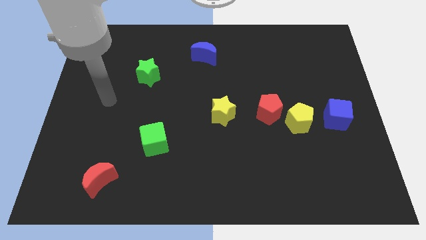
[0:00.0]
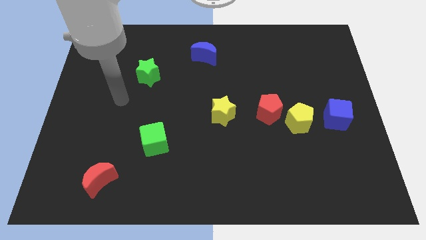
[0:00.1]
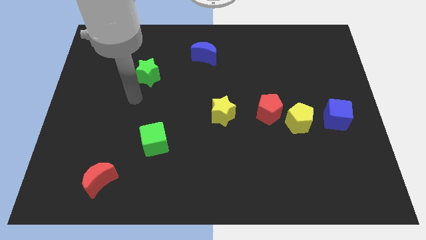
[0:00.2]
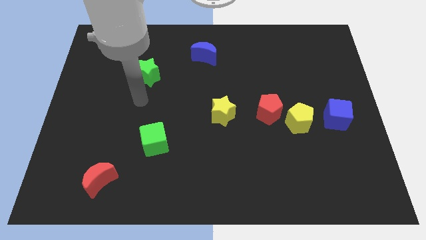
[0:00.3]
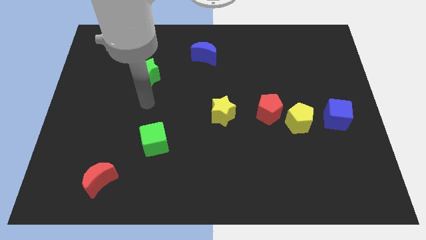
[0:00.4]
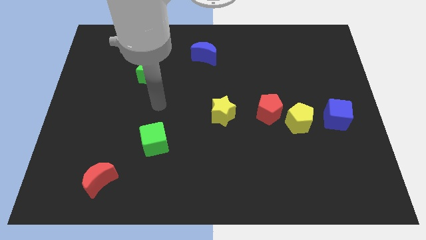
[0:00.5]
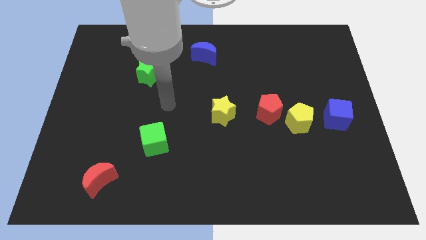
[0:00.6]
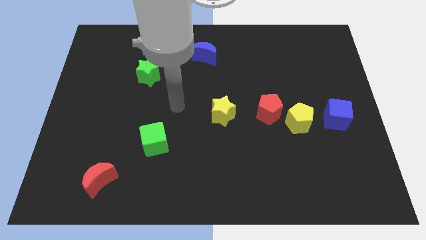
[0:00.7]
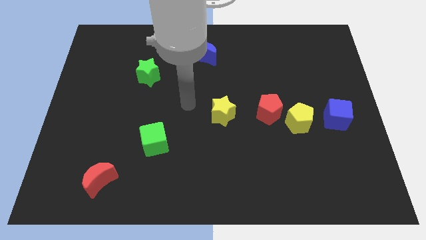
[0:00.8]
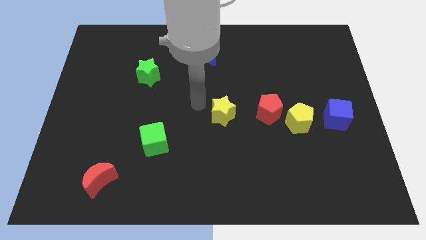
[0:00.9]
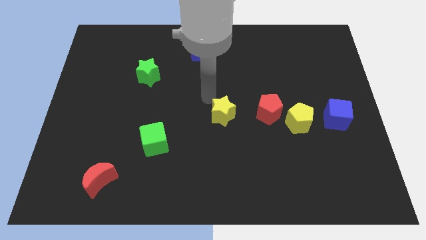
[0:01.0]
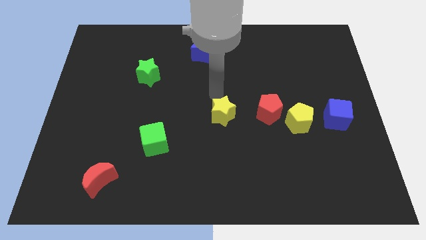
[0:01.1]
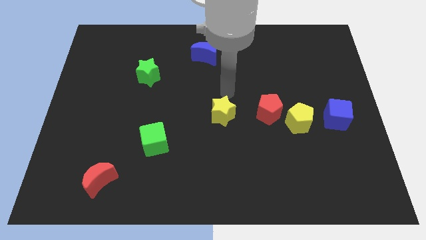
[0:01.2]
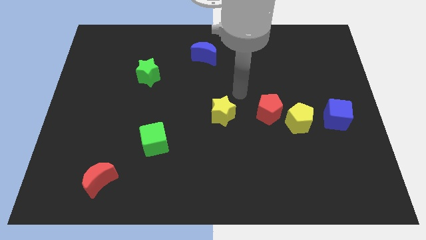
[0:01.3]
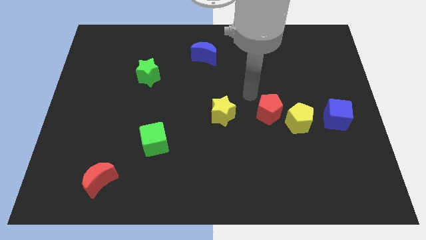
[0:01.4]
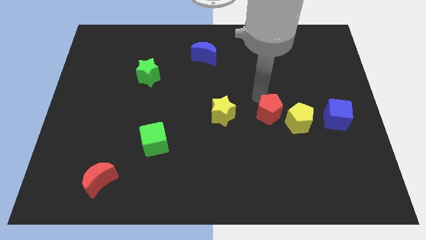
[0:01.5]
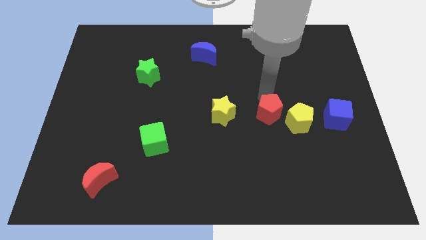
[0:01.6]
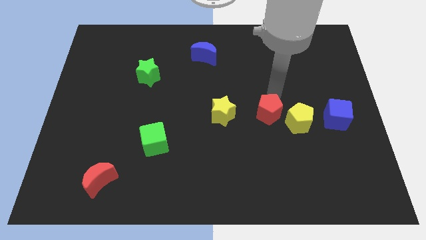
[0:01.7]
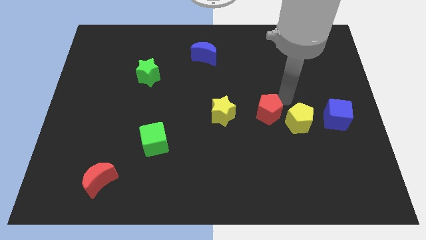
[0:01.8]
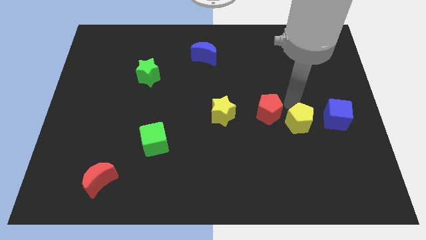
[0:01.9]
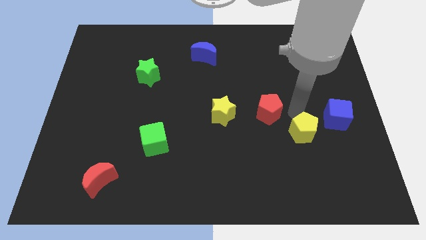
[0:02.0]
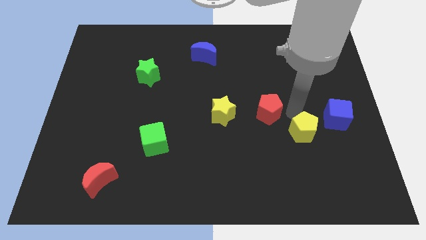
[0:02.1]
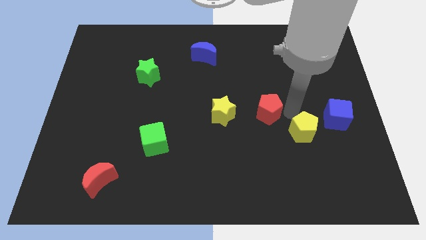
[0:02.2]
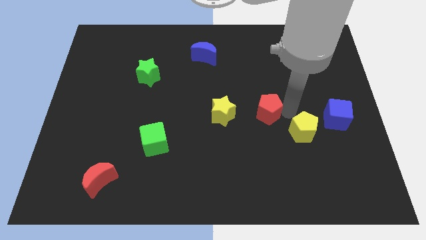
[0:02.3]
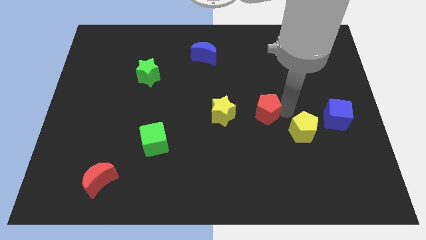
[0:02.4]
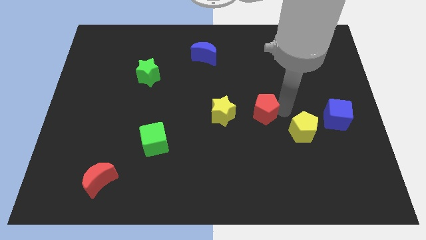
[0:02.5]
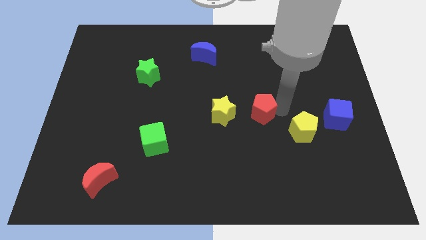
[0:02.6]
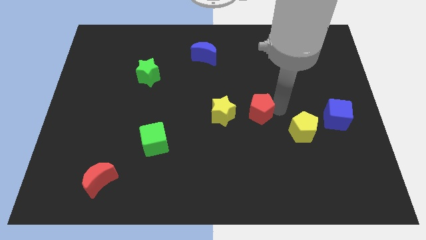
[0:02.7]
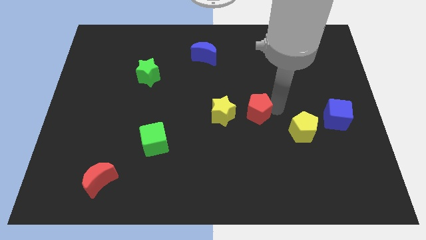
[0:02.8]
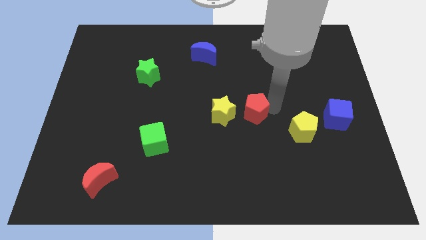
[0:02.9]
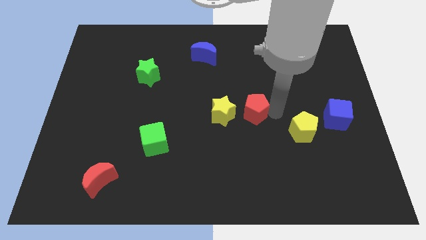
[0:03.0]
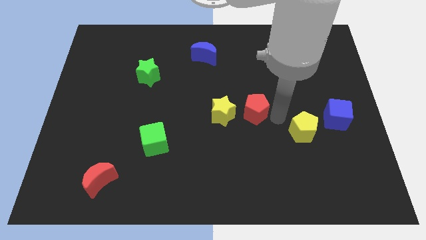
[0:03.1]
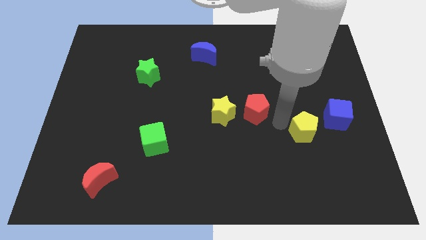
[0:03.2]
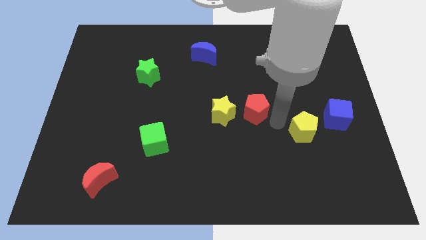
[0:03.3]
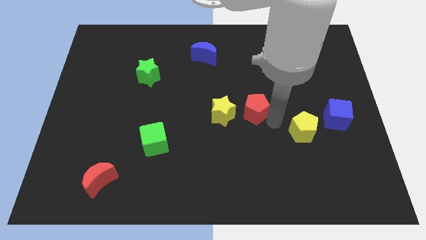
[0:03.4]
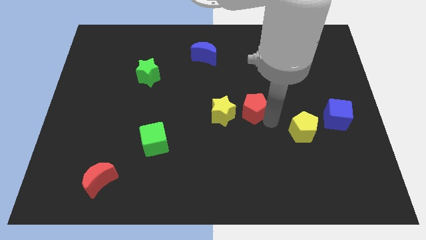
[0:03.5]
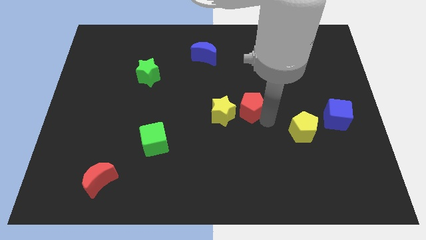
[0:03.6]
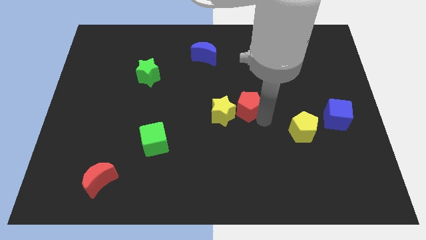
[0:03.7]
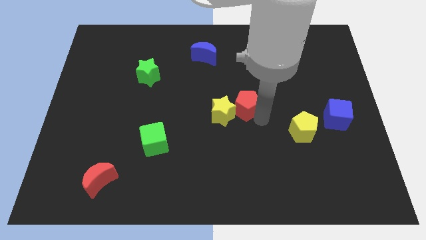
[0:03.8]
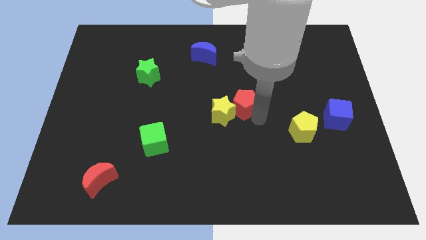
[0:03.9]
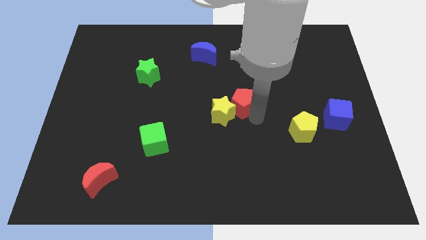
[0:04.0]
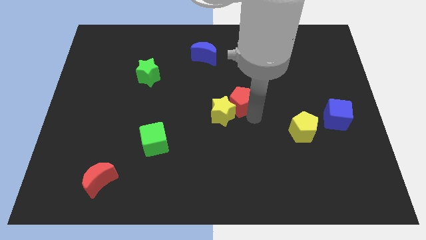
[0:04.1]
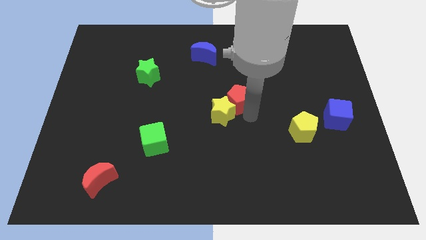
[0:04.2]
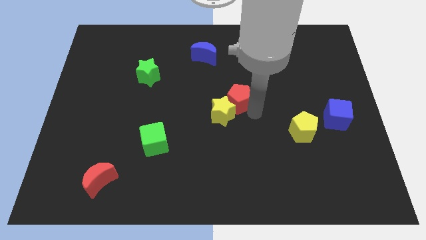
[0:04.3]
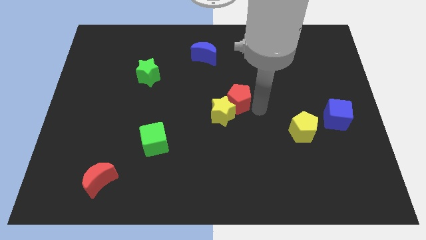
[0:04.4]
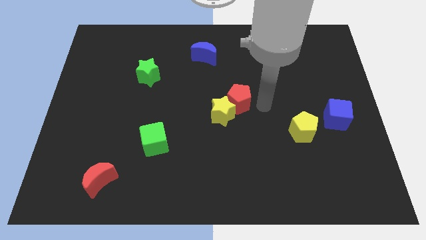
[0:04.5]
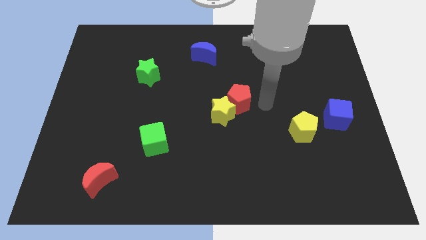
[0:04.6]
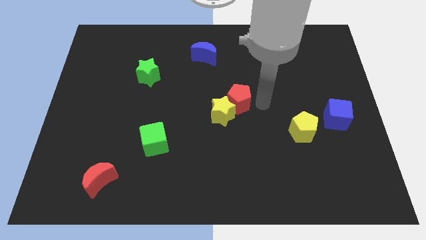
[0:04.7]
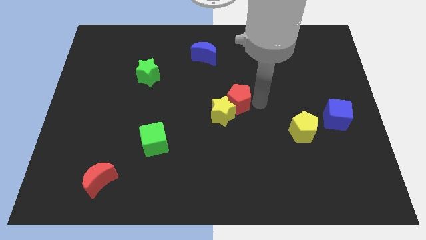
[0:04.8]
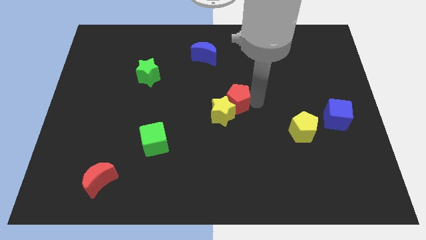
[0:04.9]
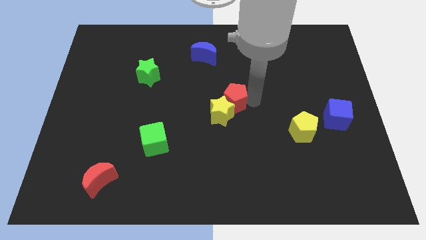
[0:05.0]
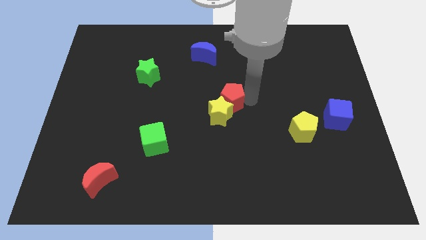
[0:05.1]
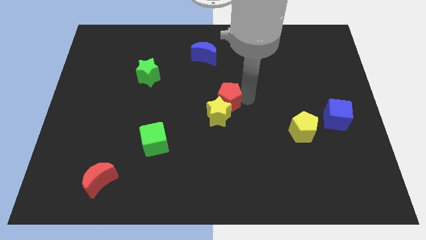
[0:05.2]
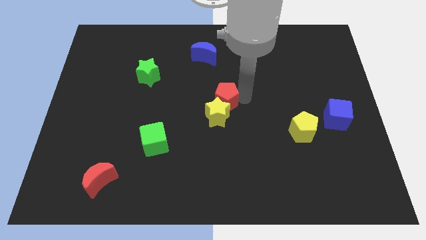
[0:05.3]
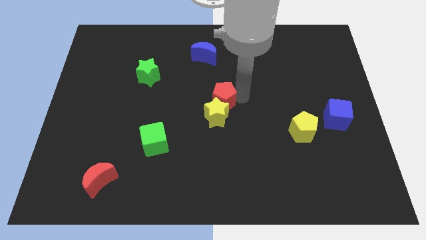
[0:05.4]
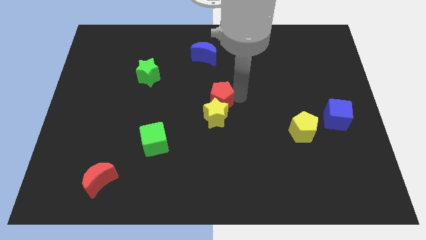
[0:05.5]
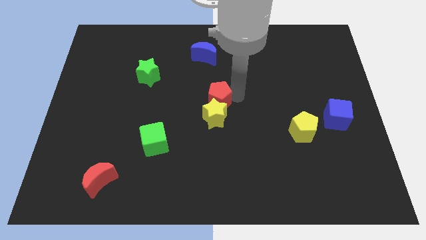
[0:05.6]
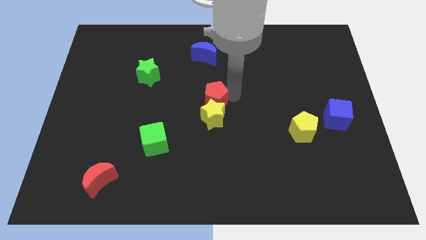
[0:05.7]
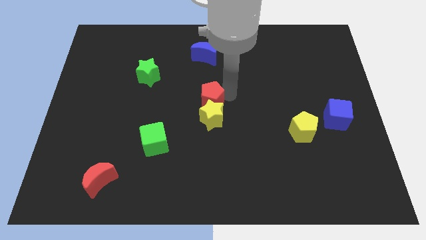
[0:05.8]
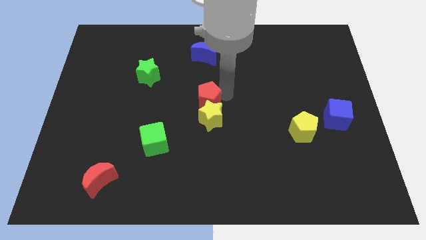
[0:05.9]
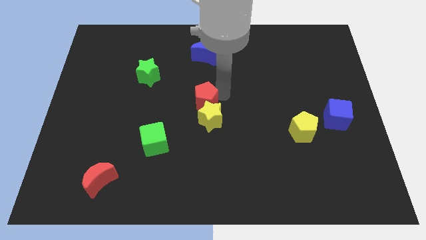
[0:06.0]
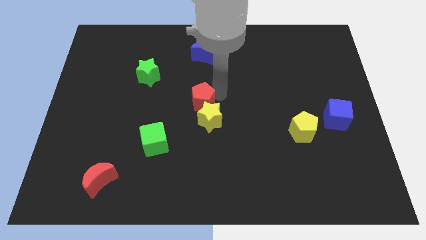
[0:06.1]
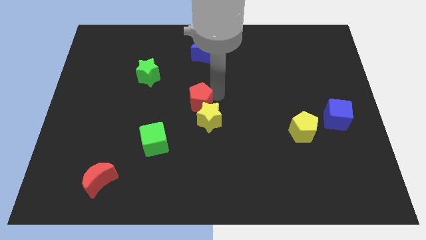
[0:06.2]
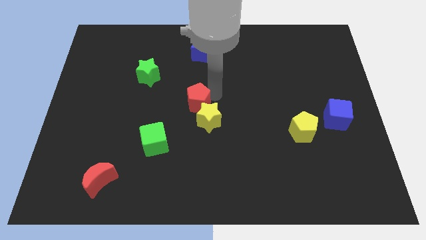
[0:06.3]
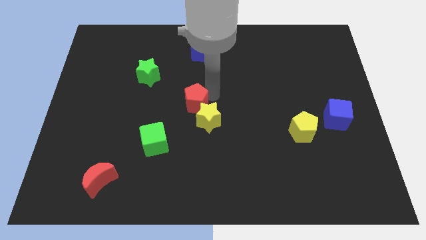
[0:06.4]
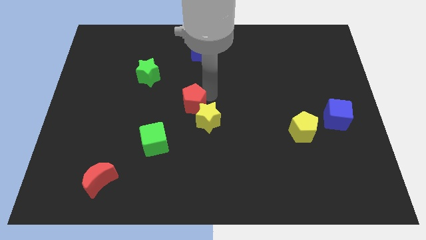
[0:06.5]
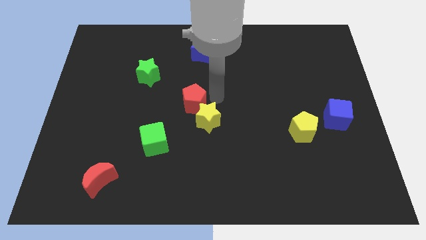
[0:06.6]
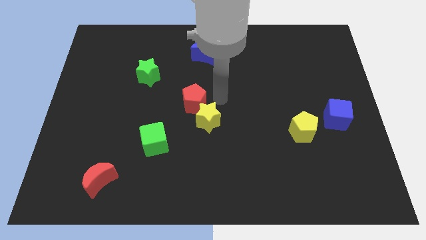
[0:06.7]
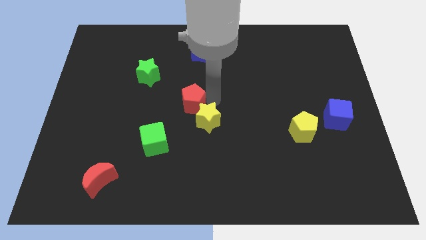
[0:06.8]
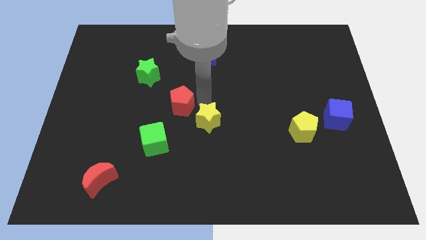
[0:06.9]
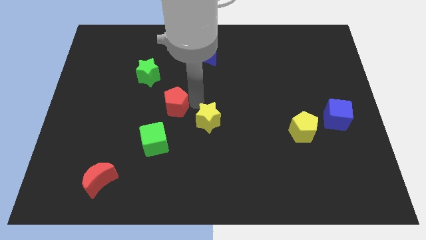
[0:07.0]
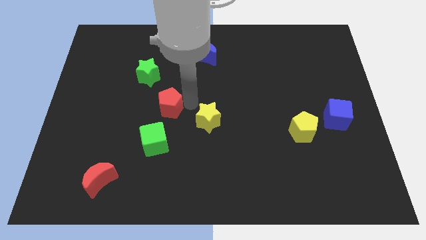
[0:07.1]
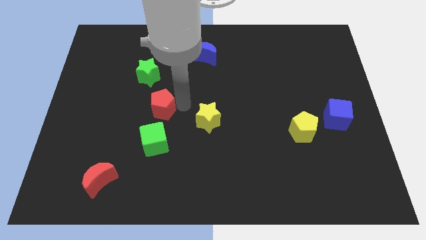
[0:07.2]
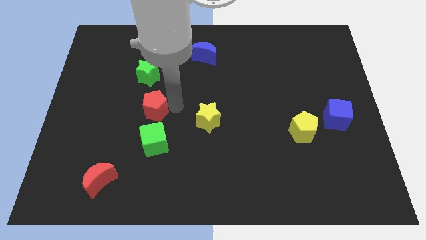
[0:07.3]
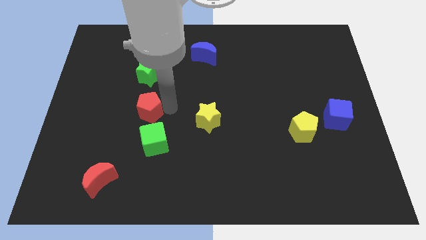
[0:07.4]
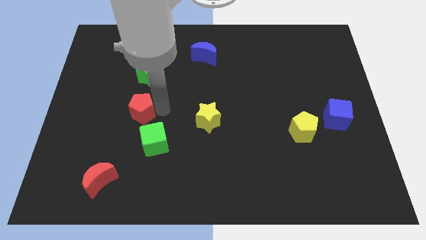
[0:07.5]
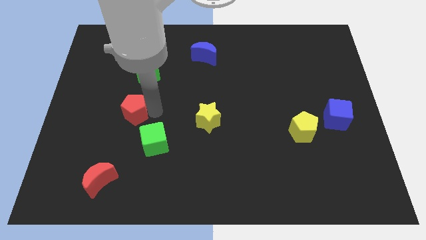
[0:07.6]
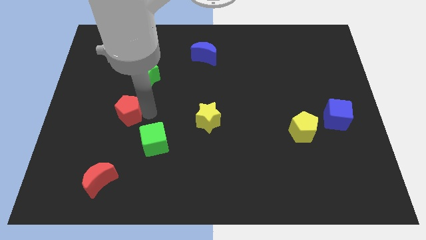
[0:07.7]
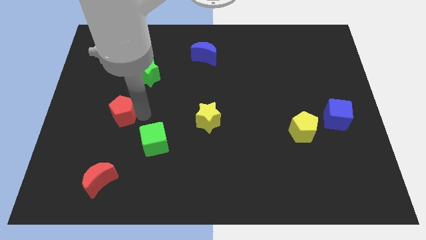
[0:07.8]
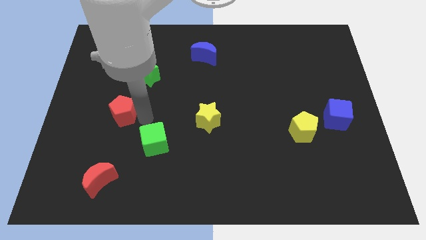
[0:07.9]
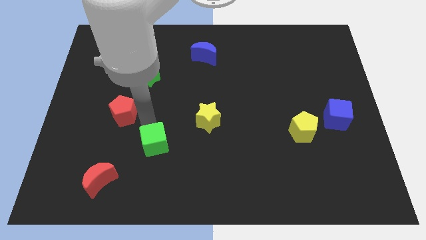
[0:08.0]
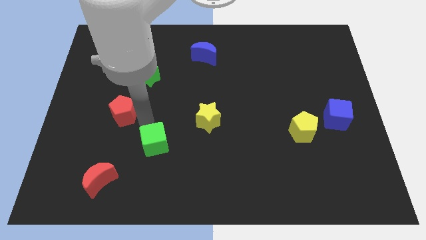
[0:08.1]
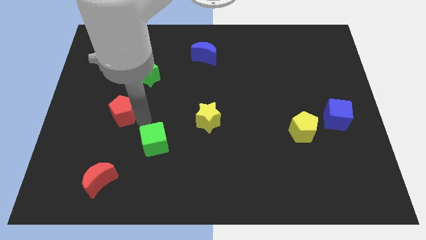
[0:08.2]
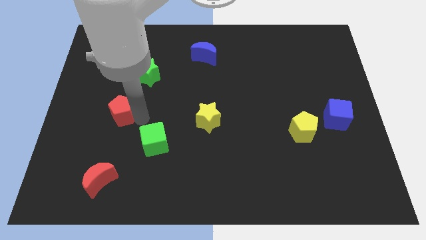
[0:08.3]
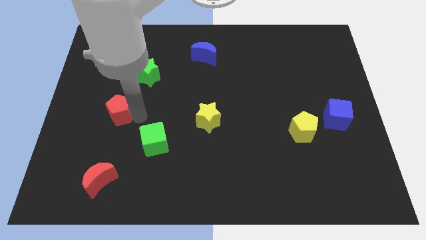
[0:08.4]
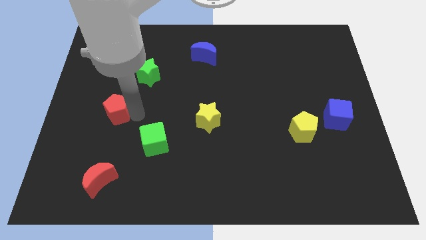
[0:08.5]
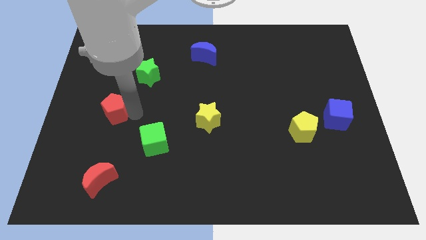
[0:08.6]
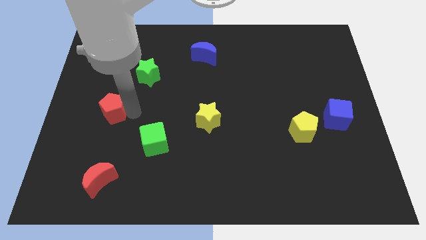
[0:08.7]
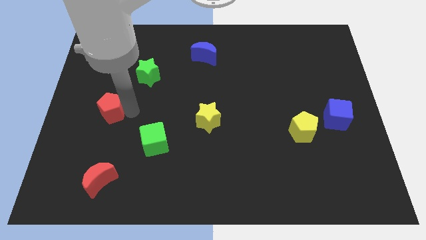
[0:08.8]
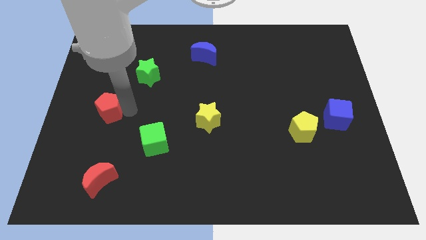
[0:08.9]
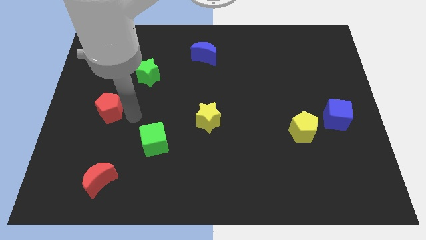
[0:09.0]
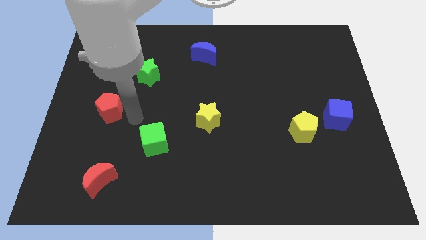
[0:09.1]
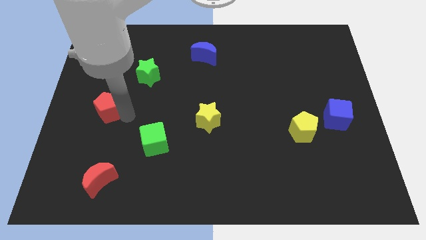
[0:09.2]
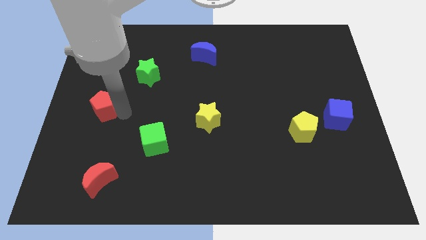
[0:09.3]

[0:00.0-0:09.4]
slide the red pentagon to the left side
